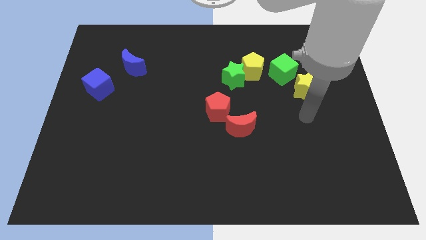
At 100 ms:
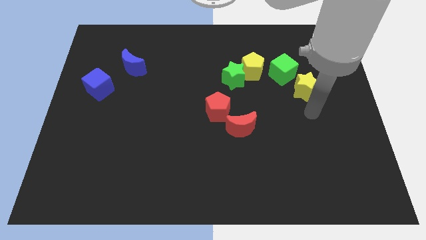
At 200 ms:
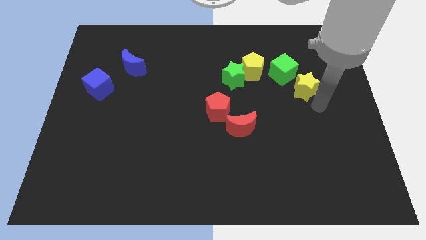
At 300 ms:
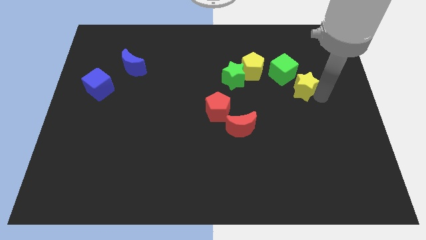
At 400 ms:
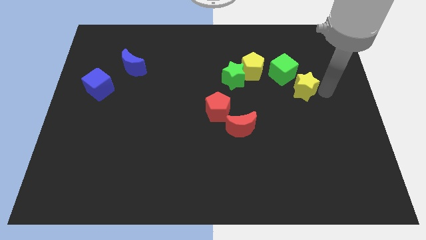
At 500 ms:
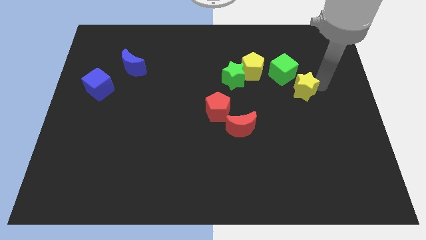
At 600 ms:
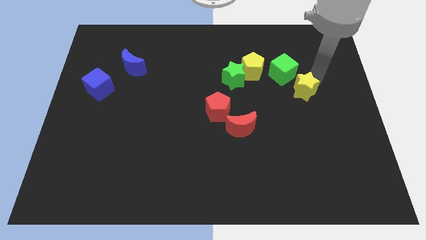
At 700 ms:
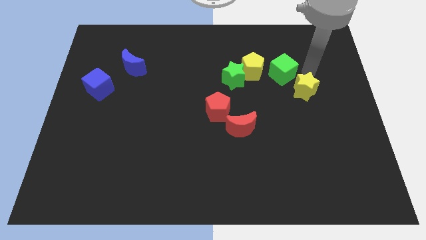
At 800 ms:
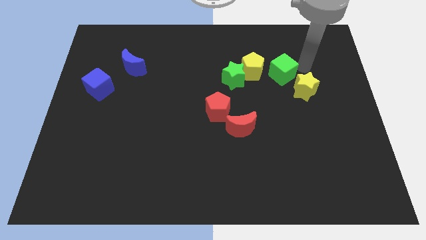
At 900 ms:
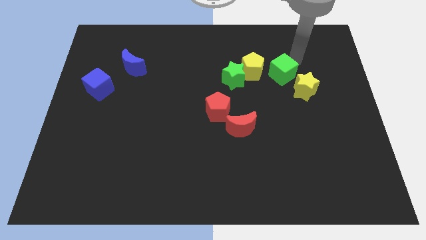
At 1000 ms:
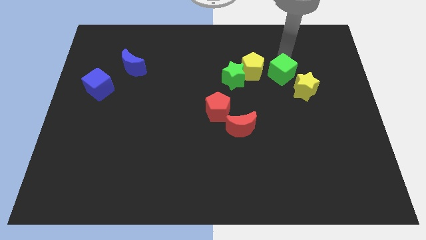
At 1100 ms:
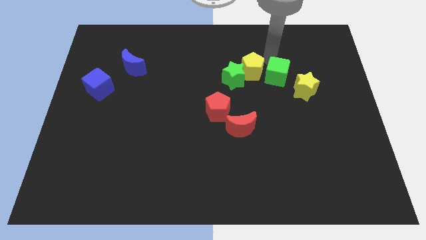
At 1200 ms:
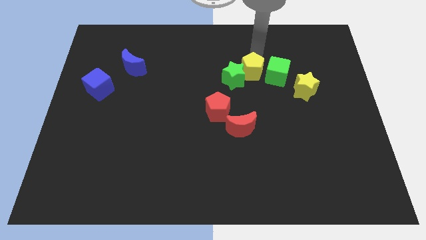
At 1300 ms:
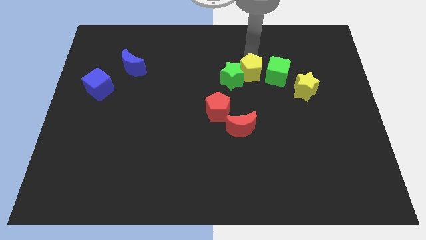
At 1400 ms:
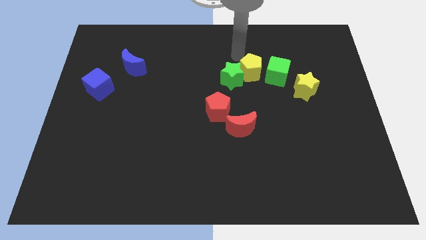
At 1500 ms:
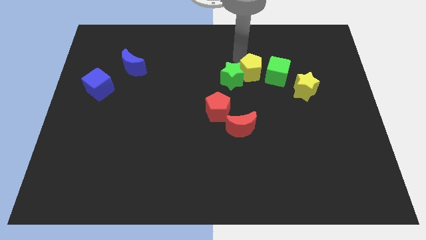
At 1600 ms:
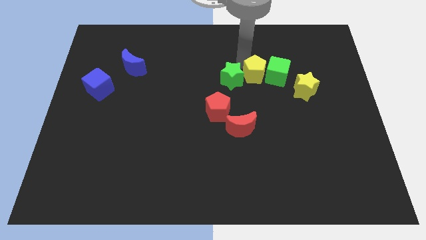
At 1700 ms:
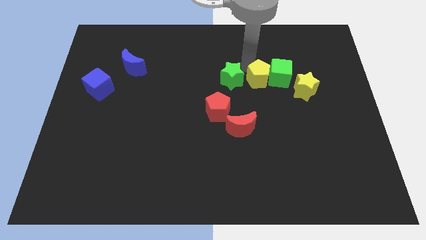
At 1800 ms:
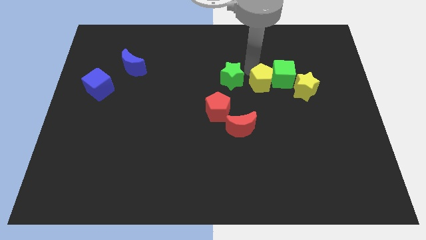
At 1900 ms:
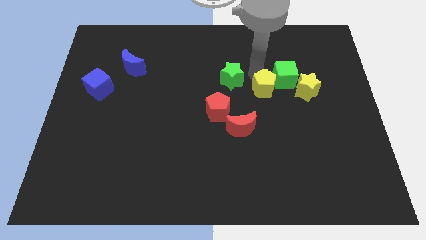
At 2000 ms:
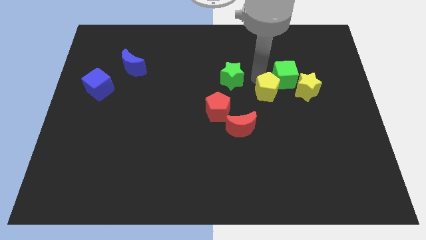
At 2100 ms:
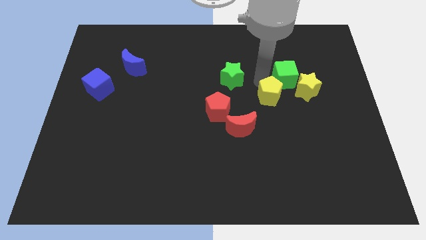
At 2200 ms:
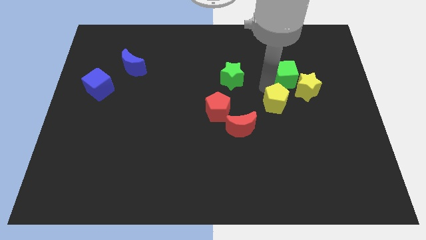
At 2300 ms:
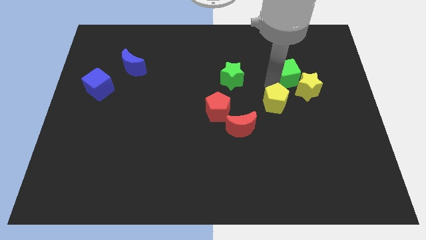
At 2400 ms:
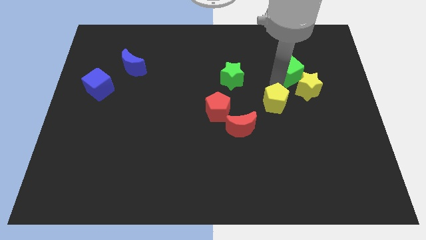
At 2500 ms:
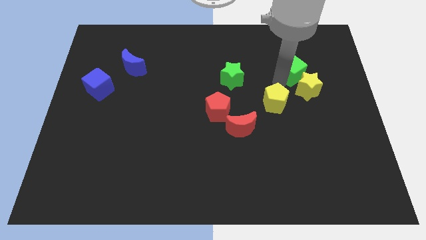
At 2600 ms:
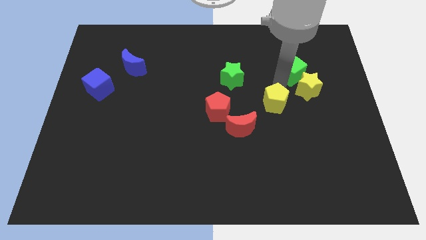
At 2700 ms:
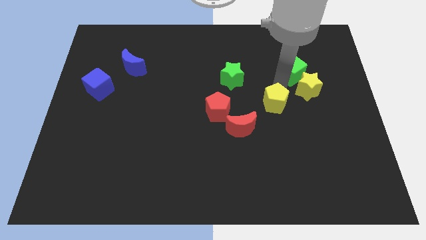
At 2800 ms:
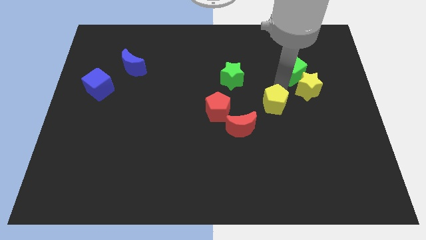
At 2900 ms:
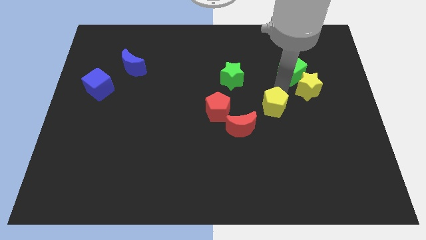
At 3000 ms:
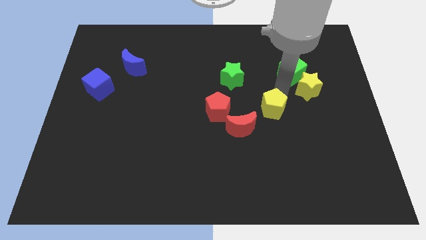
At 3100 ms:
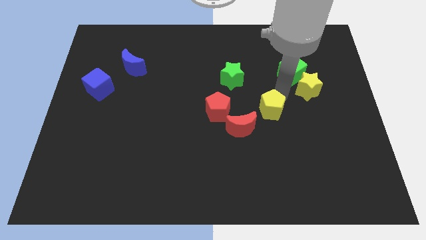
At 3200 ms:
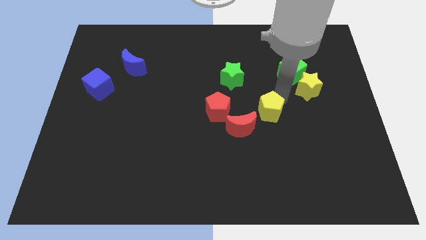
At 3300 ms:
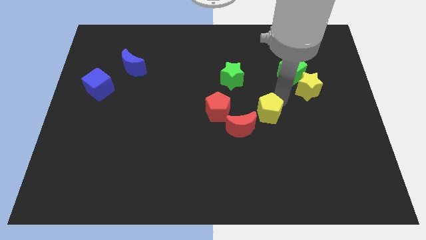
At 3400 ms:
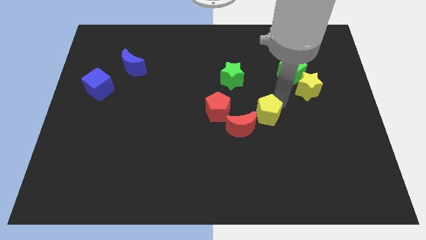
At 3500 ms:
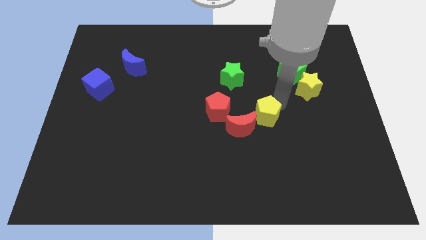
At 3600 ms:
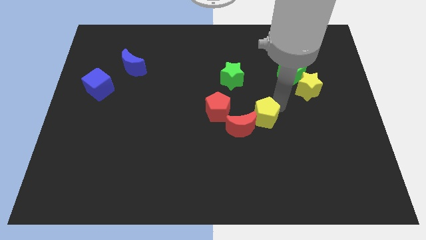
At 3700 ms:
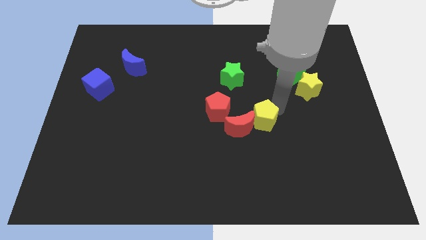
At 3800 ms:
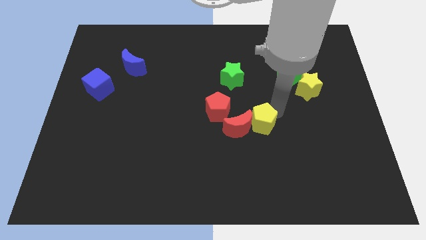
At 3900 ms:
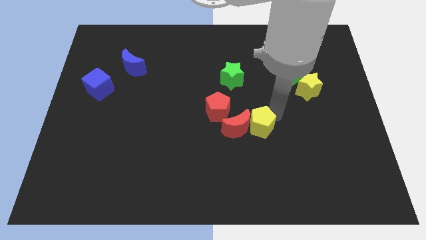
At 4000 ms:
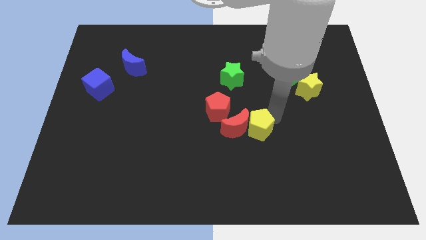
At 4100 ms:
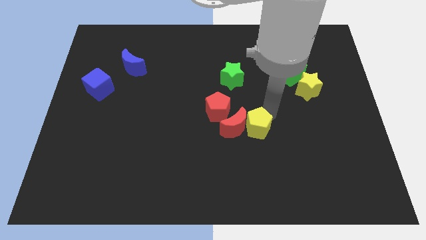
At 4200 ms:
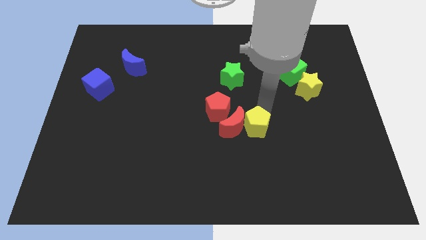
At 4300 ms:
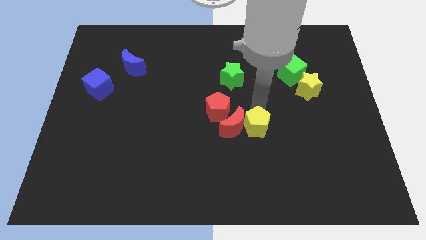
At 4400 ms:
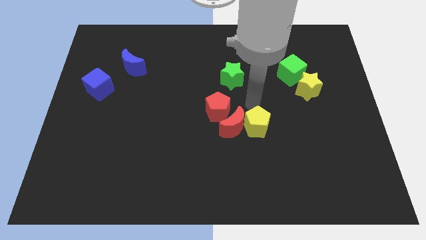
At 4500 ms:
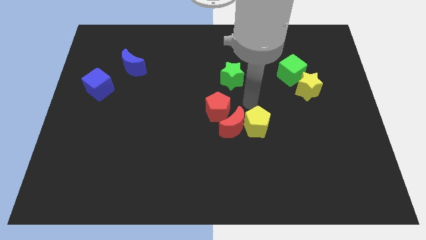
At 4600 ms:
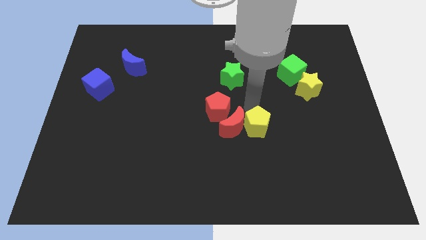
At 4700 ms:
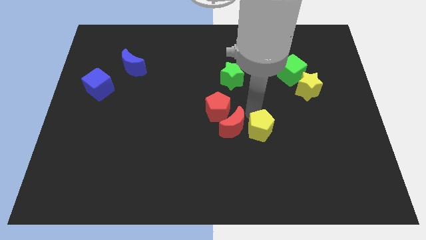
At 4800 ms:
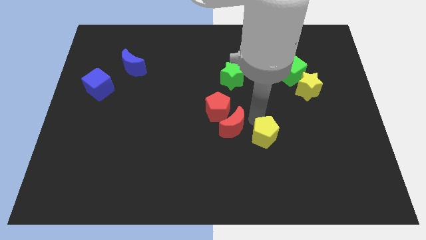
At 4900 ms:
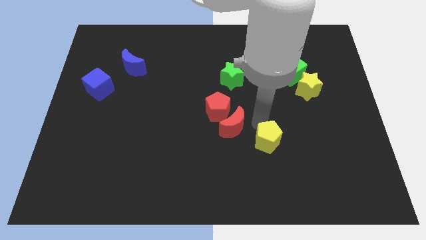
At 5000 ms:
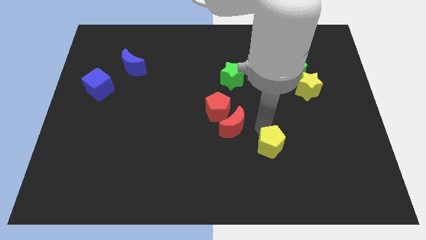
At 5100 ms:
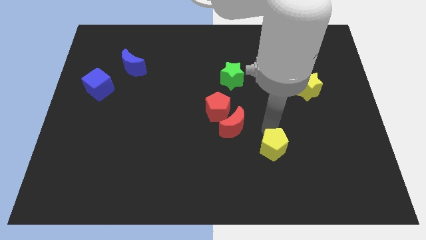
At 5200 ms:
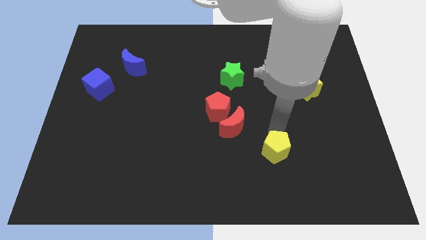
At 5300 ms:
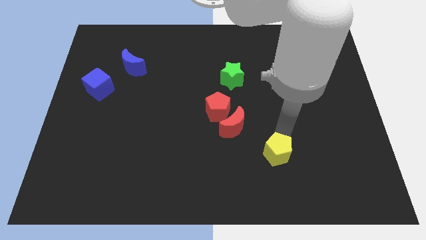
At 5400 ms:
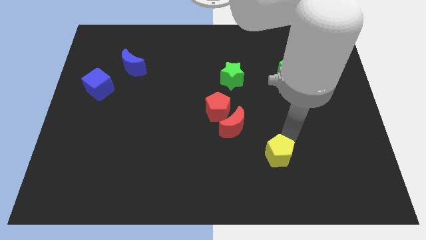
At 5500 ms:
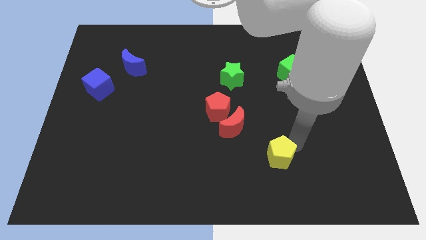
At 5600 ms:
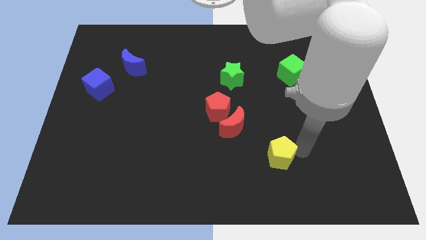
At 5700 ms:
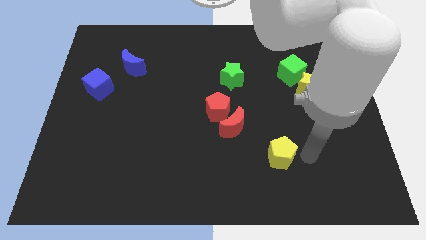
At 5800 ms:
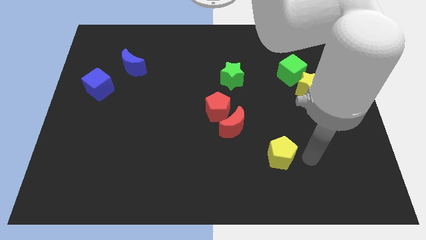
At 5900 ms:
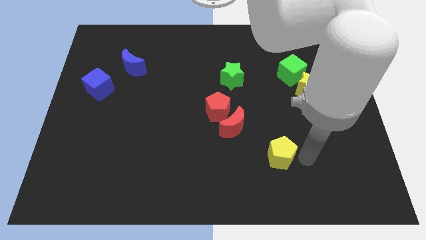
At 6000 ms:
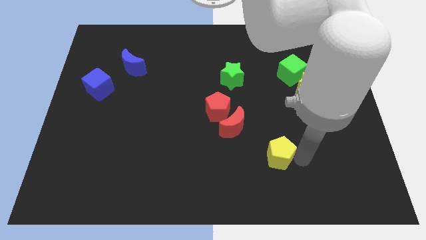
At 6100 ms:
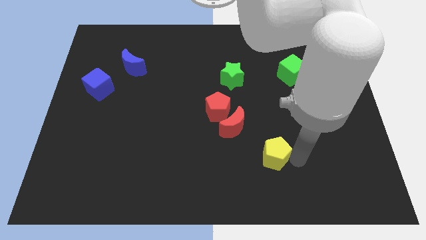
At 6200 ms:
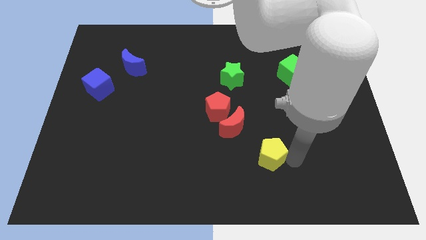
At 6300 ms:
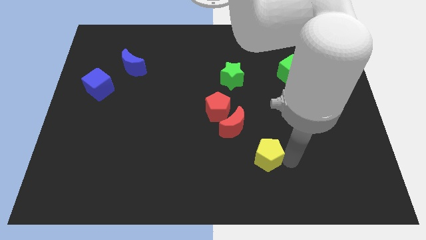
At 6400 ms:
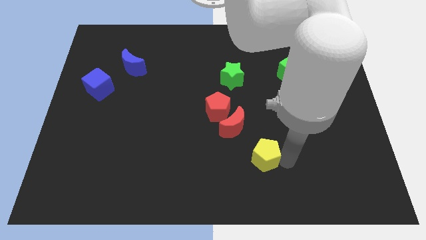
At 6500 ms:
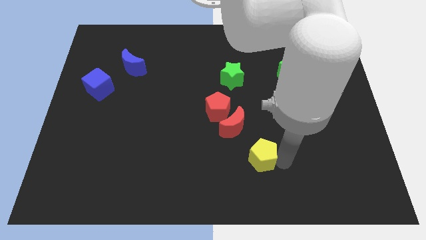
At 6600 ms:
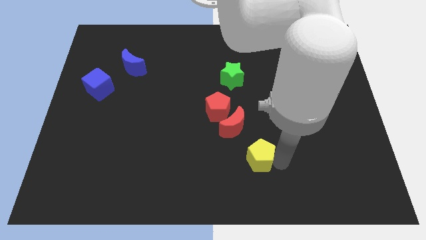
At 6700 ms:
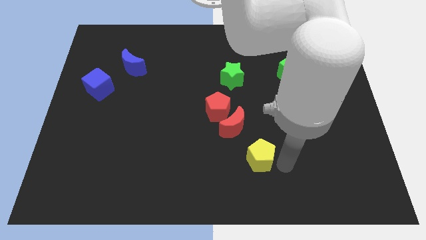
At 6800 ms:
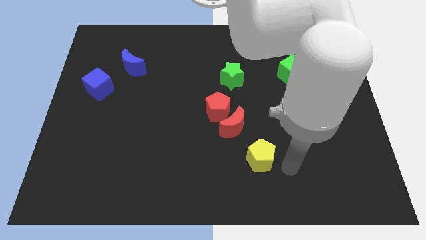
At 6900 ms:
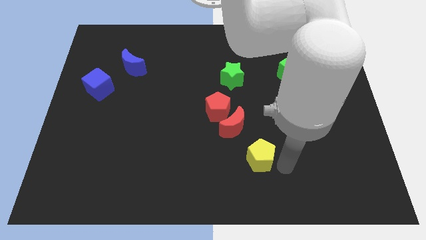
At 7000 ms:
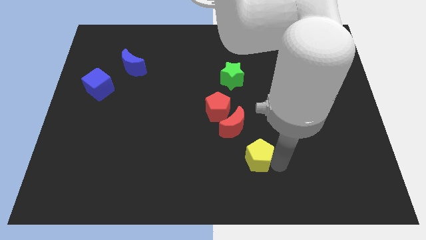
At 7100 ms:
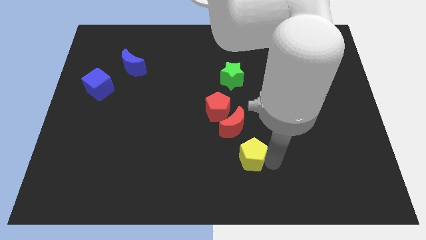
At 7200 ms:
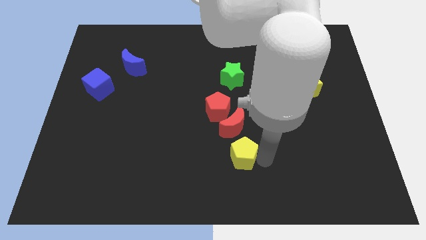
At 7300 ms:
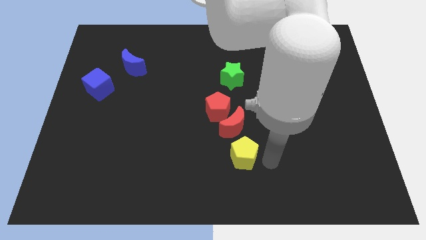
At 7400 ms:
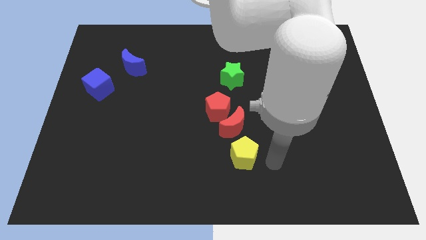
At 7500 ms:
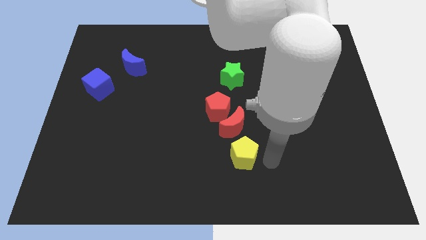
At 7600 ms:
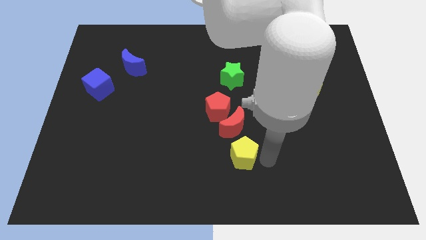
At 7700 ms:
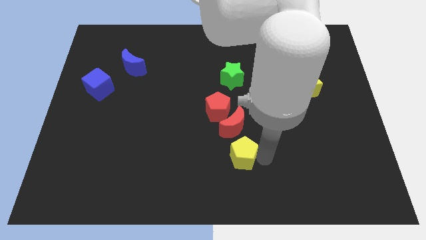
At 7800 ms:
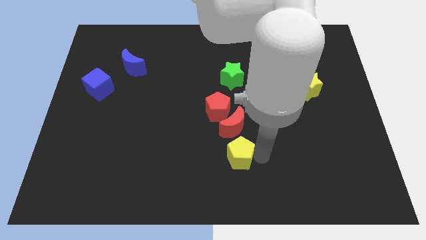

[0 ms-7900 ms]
put the yellow pentagon below the red pentagon

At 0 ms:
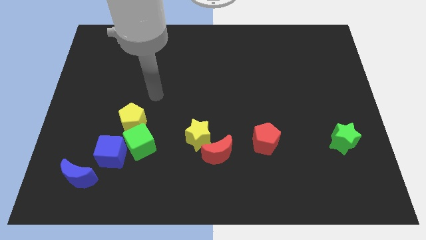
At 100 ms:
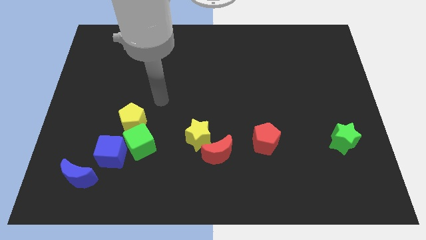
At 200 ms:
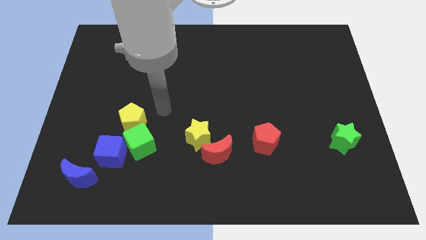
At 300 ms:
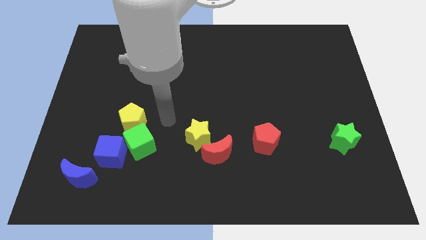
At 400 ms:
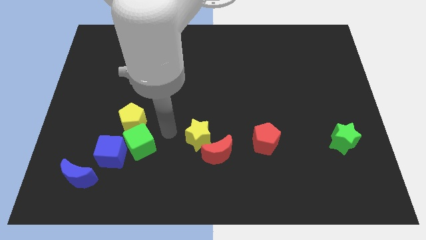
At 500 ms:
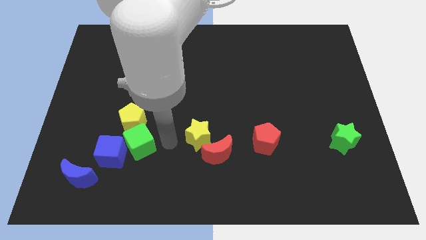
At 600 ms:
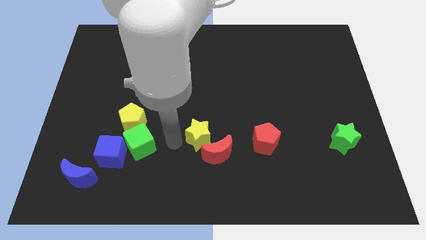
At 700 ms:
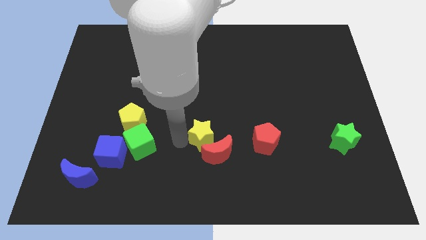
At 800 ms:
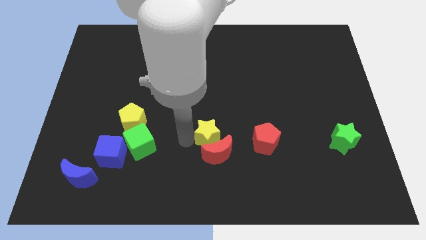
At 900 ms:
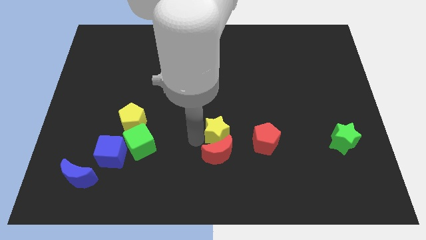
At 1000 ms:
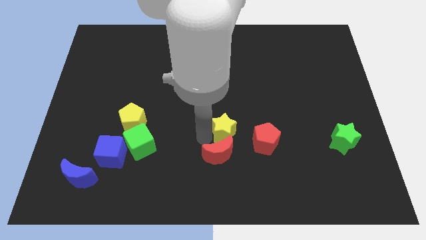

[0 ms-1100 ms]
put the yellow star diagonally up and to the left of the red pentagon

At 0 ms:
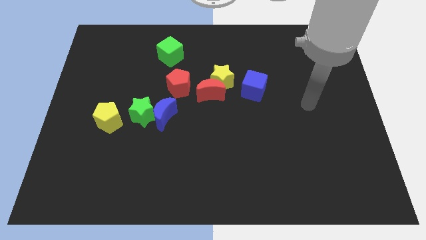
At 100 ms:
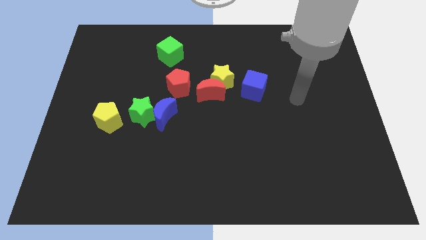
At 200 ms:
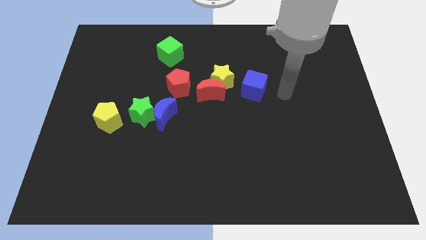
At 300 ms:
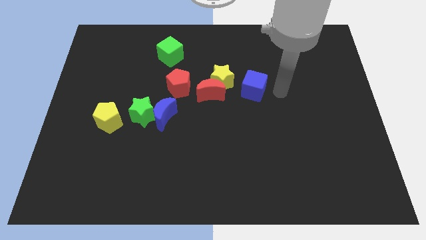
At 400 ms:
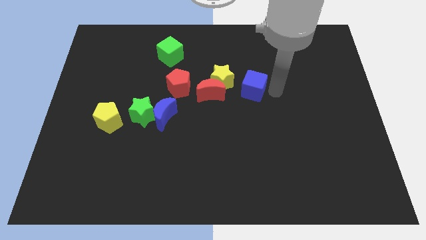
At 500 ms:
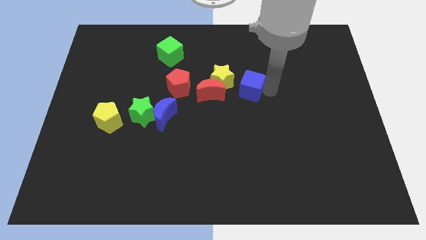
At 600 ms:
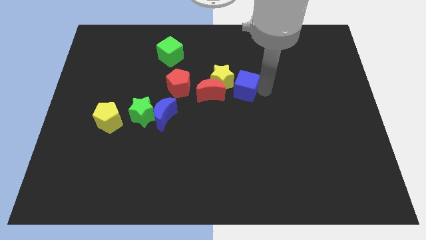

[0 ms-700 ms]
push the blue cube to the right side of the red pentagon
